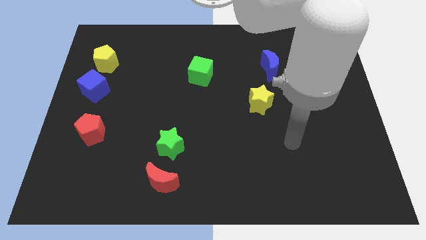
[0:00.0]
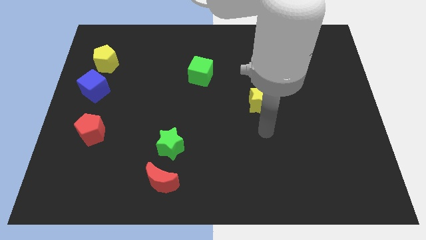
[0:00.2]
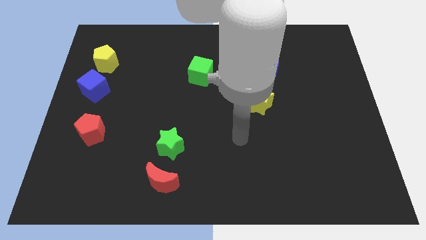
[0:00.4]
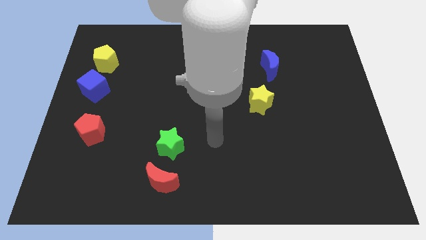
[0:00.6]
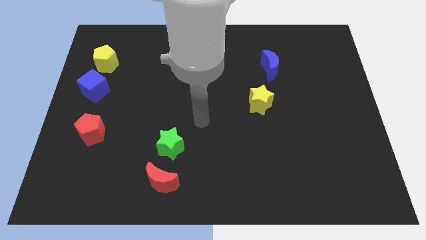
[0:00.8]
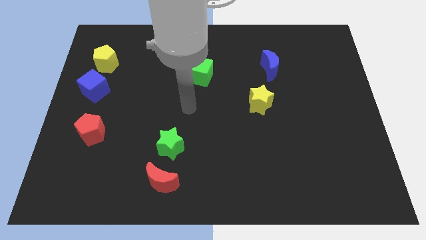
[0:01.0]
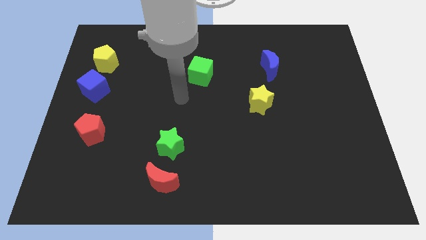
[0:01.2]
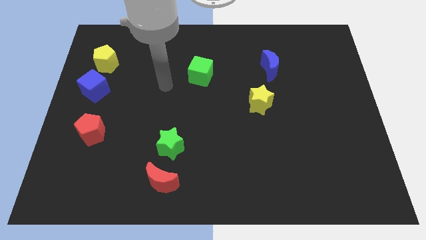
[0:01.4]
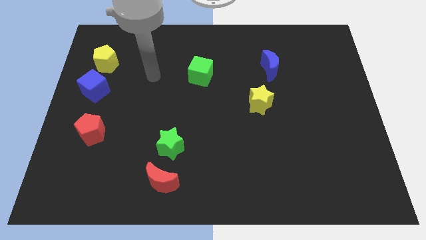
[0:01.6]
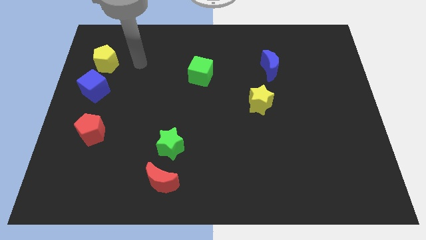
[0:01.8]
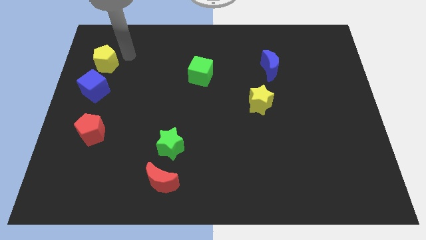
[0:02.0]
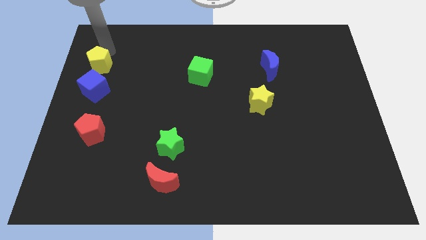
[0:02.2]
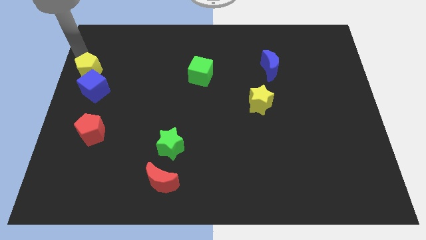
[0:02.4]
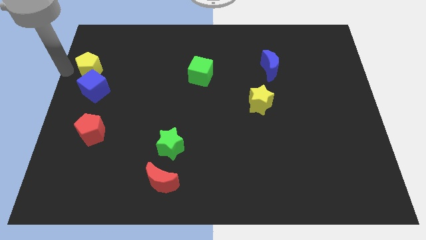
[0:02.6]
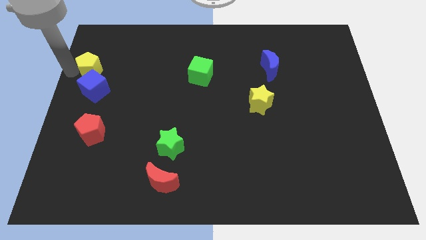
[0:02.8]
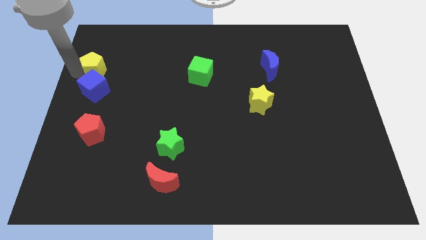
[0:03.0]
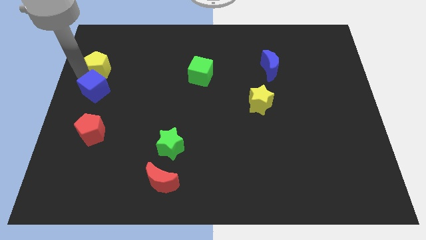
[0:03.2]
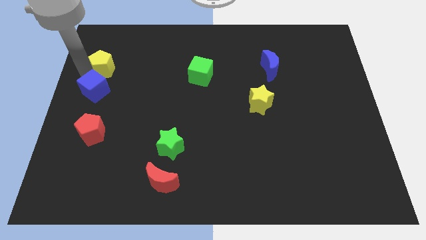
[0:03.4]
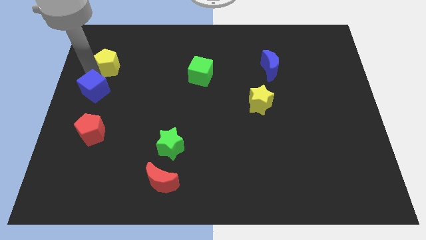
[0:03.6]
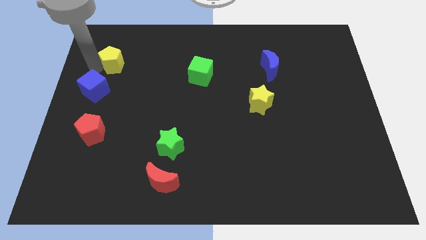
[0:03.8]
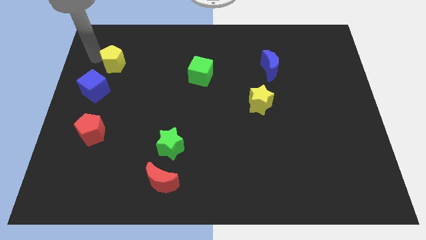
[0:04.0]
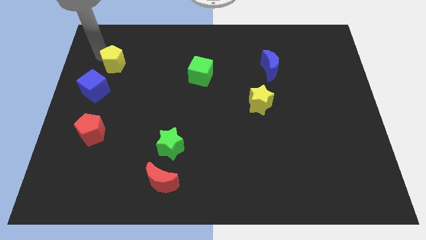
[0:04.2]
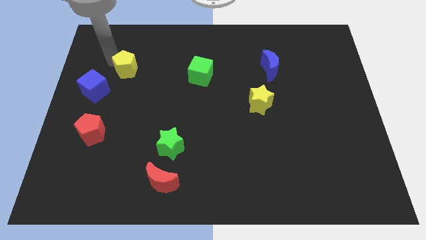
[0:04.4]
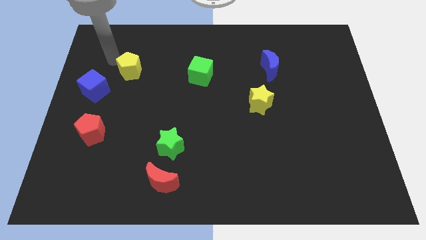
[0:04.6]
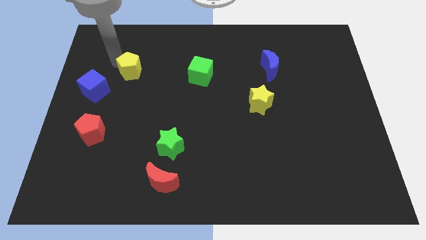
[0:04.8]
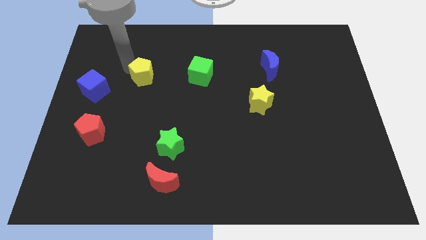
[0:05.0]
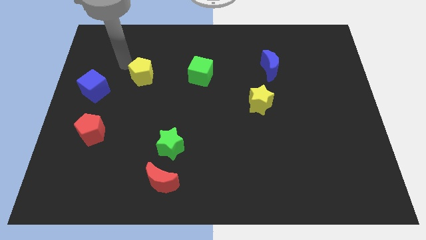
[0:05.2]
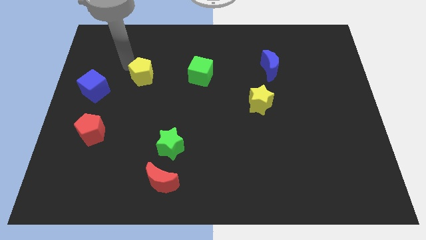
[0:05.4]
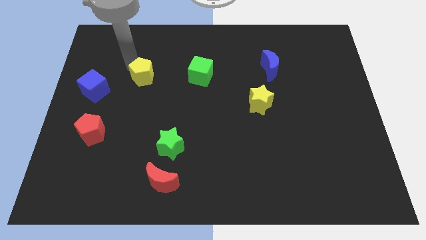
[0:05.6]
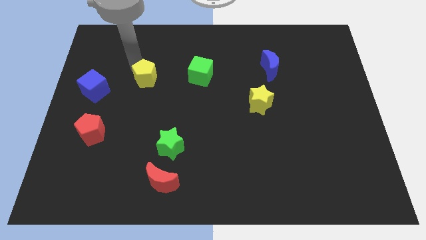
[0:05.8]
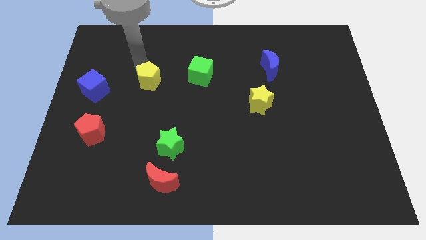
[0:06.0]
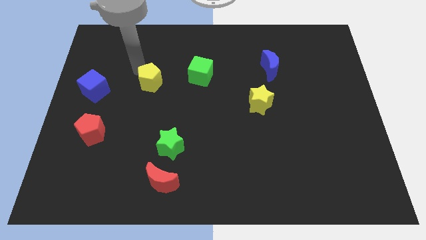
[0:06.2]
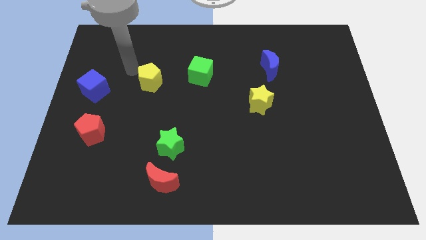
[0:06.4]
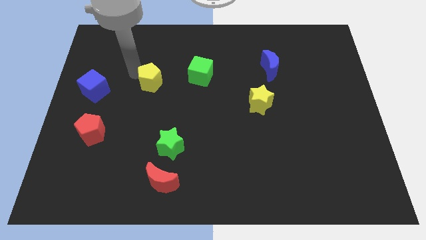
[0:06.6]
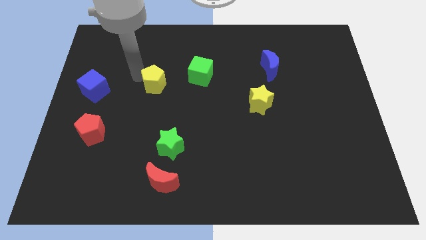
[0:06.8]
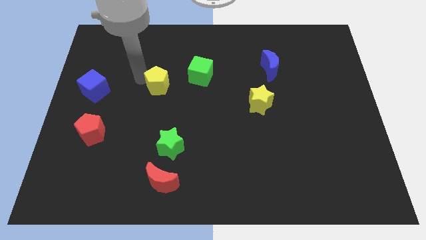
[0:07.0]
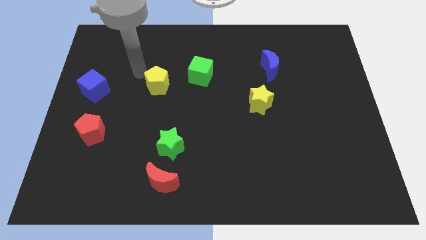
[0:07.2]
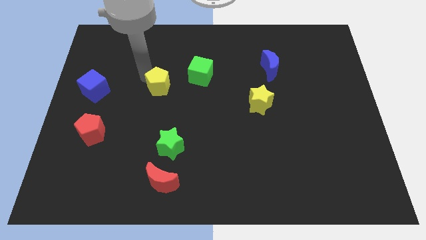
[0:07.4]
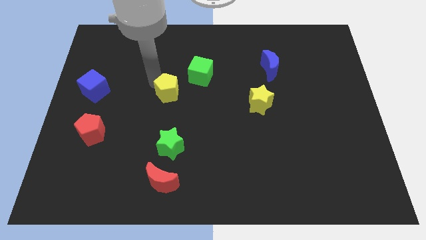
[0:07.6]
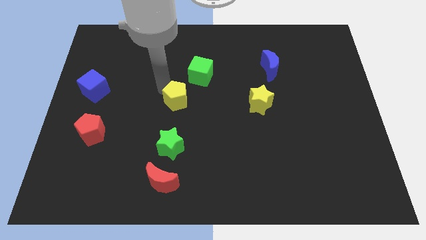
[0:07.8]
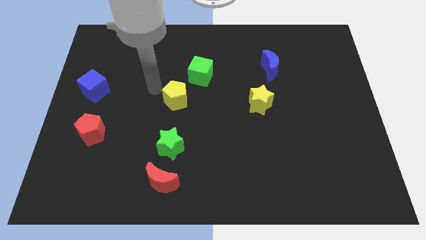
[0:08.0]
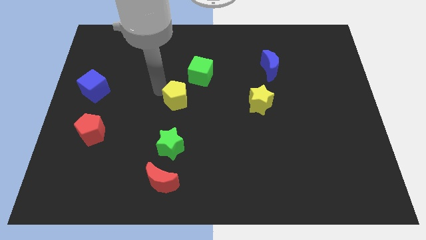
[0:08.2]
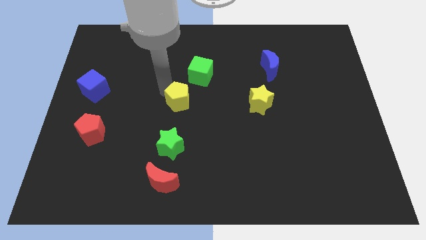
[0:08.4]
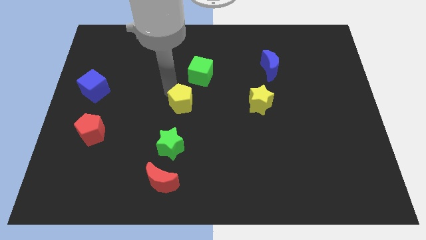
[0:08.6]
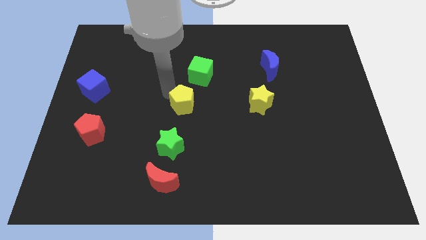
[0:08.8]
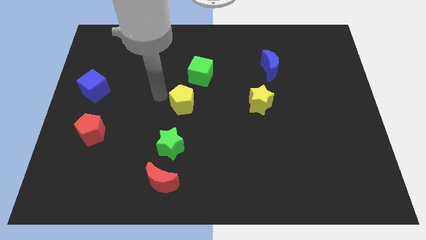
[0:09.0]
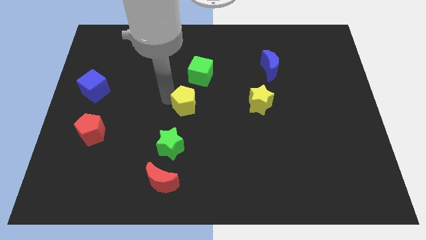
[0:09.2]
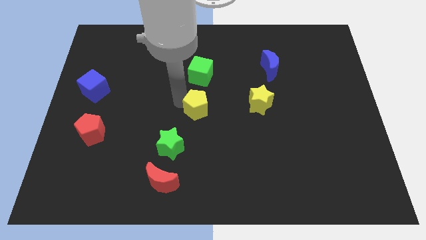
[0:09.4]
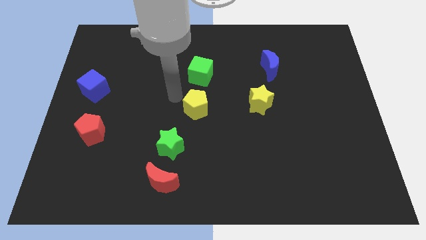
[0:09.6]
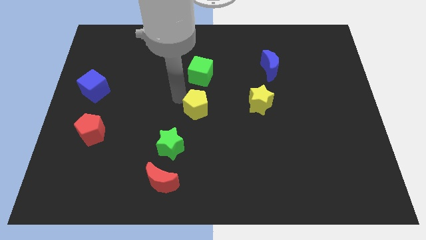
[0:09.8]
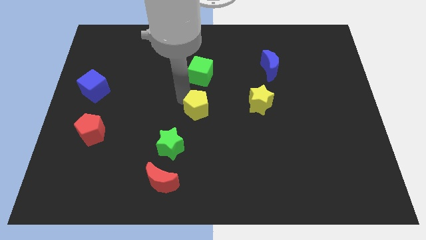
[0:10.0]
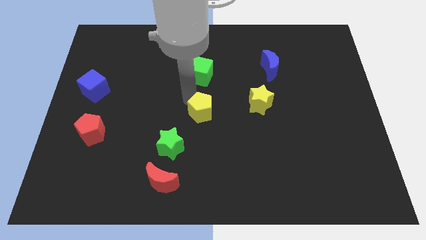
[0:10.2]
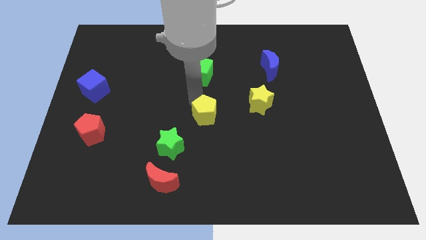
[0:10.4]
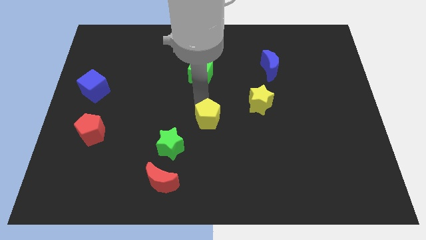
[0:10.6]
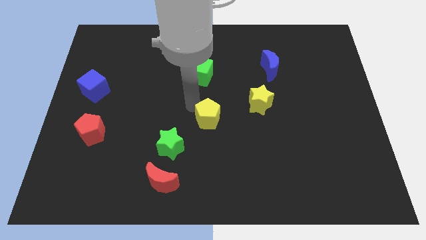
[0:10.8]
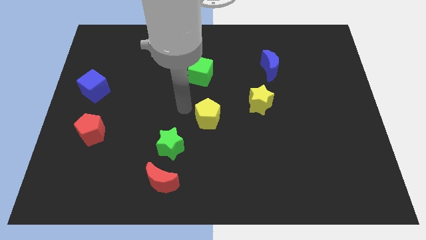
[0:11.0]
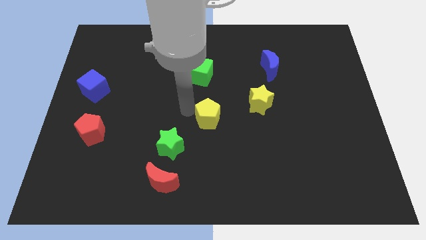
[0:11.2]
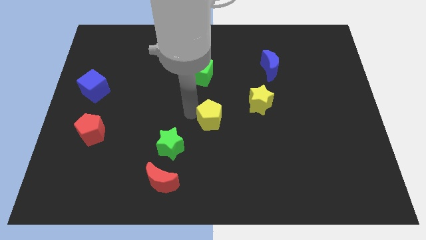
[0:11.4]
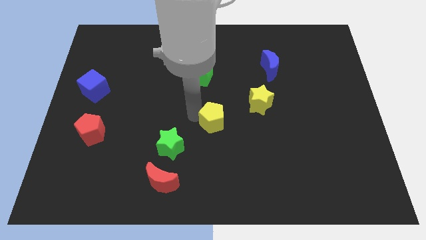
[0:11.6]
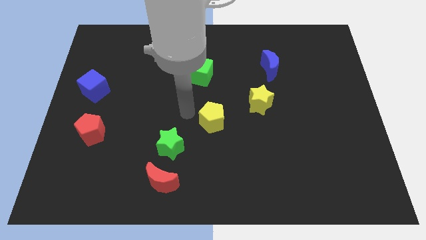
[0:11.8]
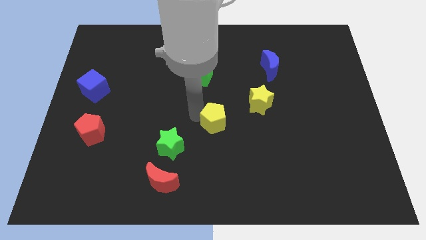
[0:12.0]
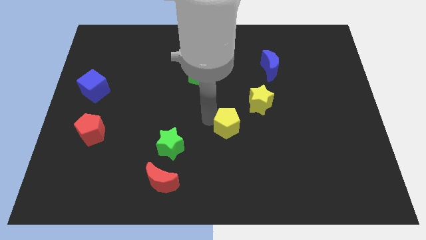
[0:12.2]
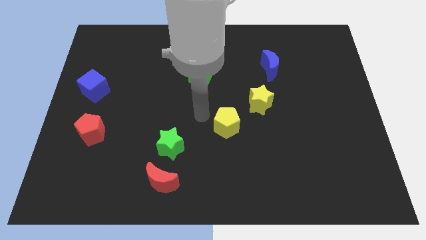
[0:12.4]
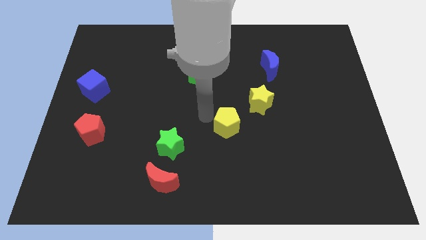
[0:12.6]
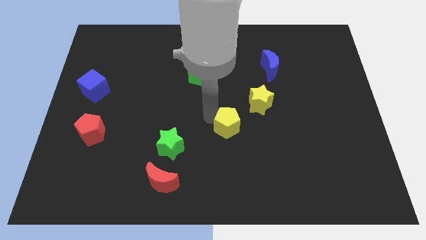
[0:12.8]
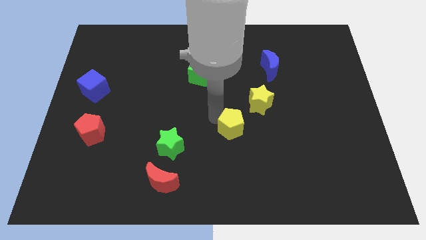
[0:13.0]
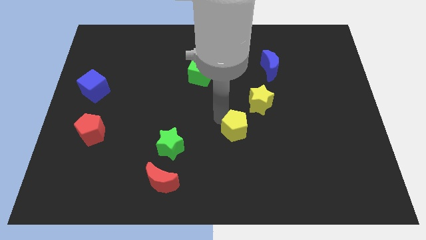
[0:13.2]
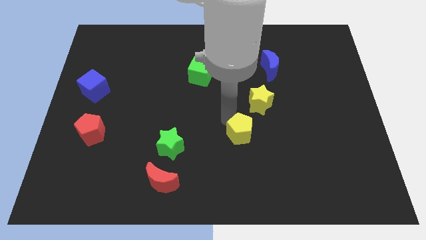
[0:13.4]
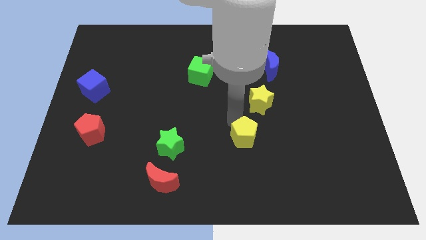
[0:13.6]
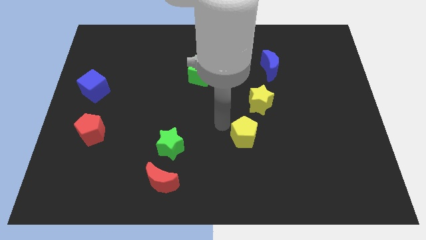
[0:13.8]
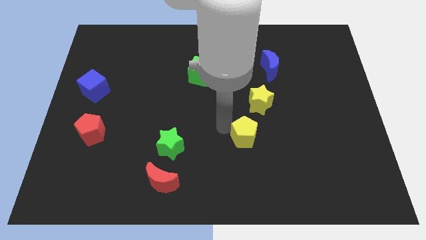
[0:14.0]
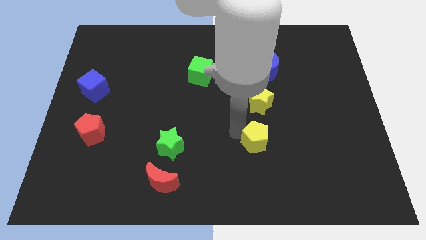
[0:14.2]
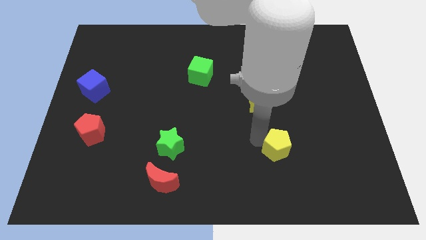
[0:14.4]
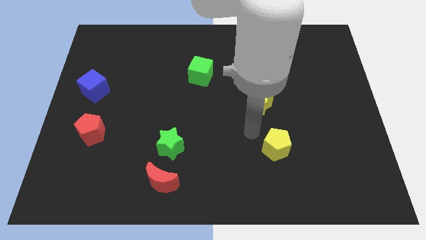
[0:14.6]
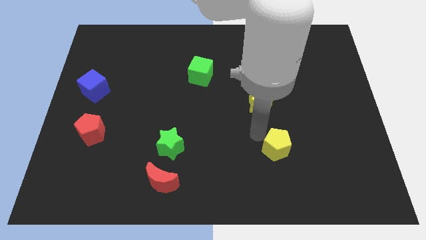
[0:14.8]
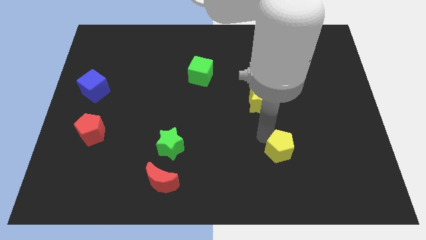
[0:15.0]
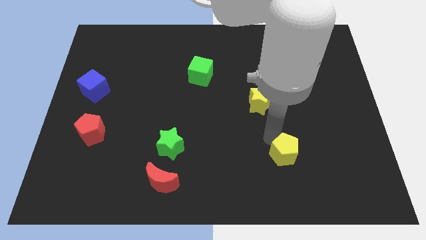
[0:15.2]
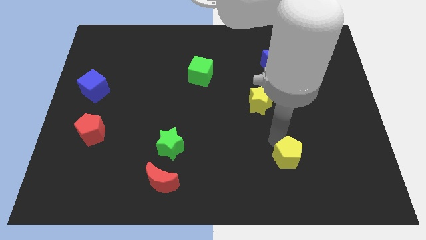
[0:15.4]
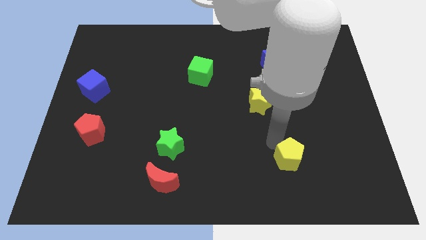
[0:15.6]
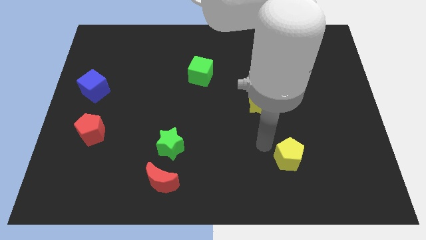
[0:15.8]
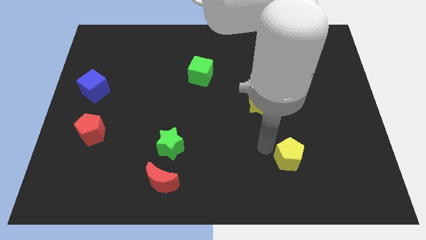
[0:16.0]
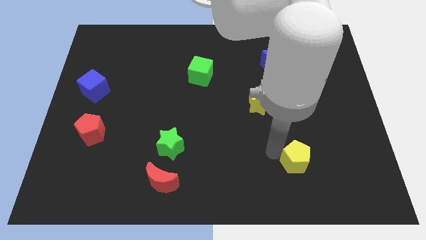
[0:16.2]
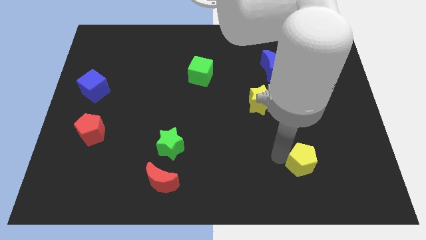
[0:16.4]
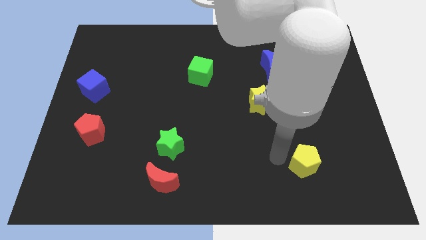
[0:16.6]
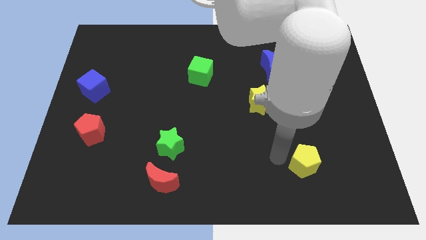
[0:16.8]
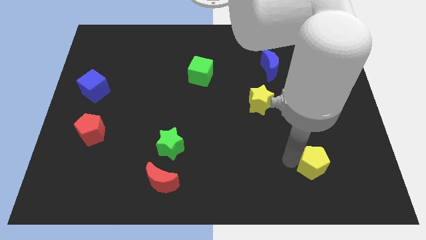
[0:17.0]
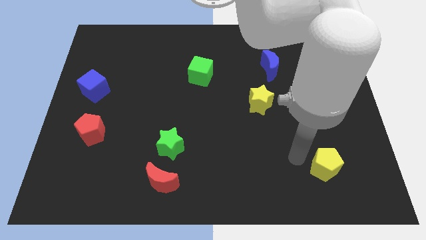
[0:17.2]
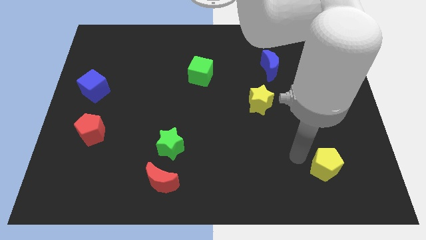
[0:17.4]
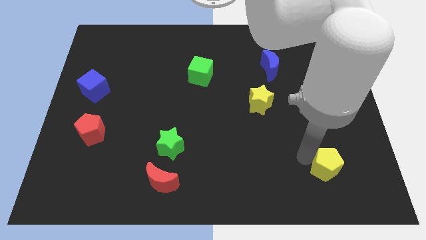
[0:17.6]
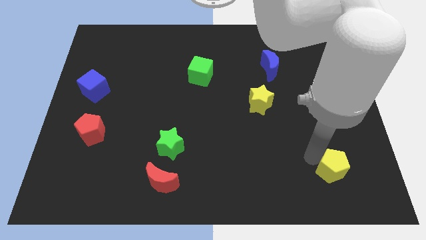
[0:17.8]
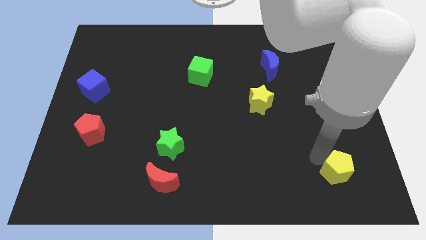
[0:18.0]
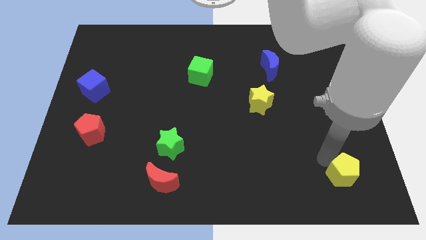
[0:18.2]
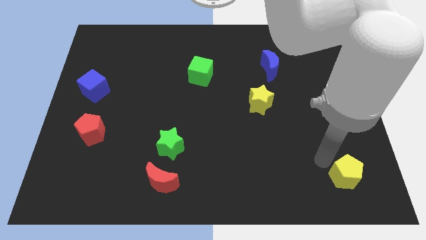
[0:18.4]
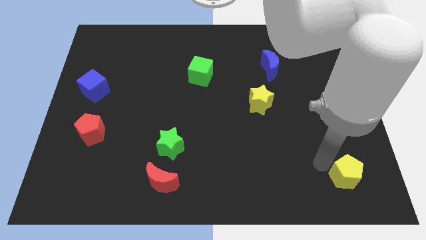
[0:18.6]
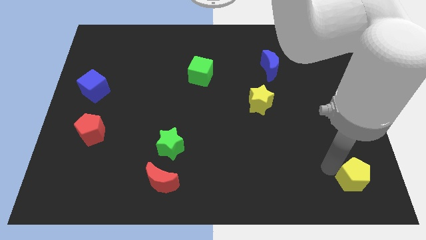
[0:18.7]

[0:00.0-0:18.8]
move the yellow pentagon to the bottom right
